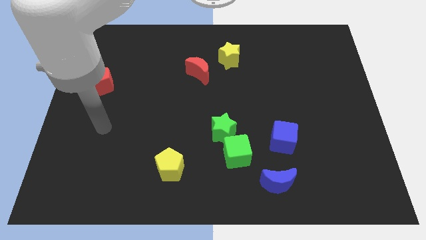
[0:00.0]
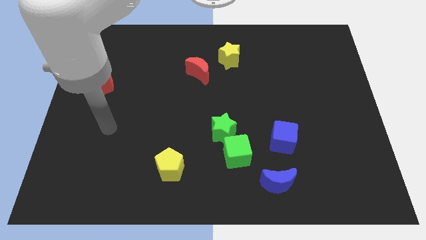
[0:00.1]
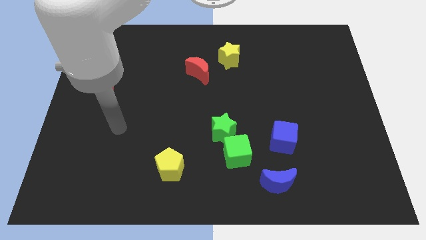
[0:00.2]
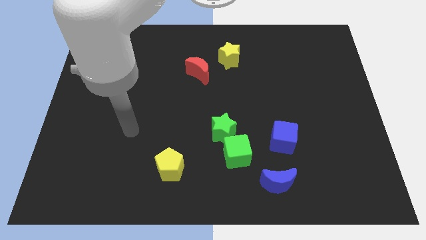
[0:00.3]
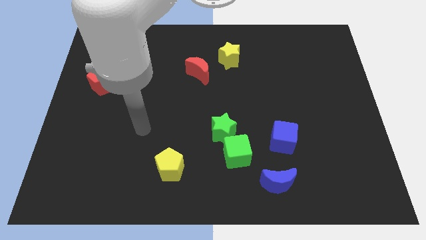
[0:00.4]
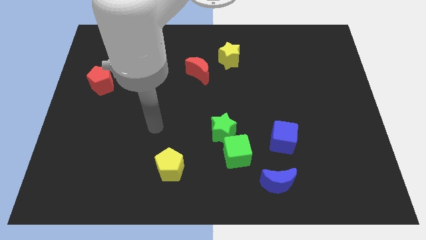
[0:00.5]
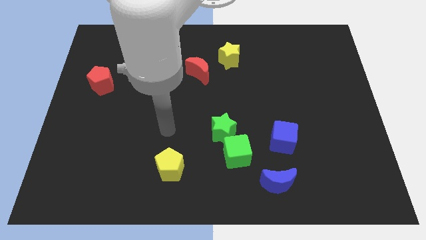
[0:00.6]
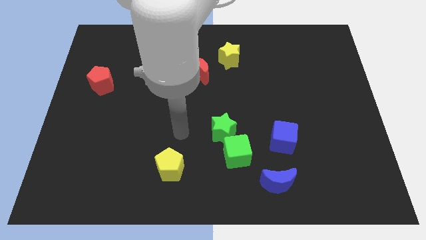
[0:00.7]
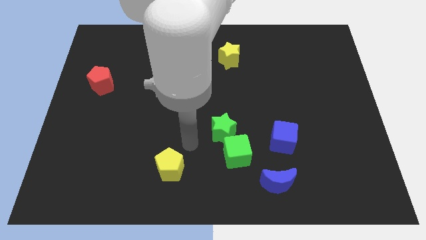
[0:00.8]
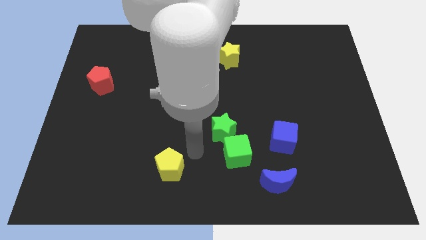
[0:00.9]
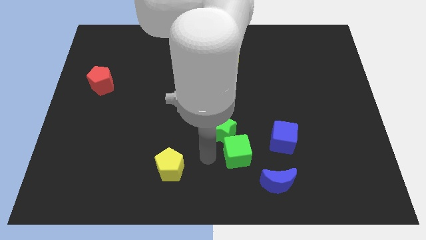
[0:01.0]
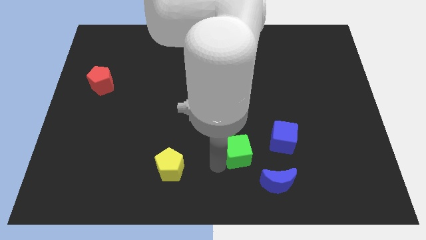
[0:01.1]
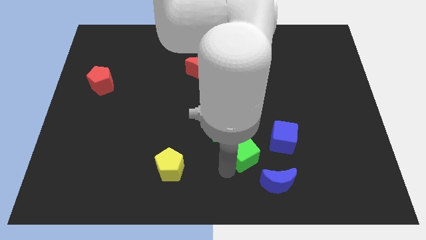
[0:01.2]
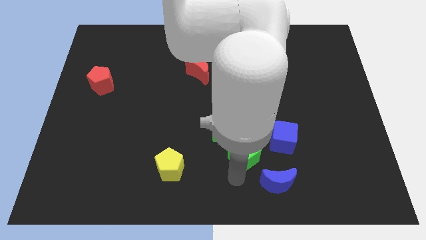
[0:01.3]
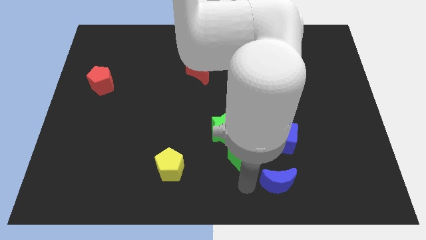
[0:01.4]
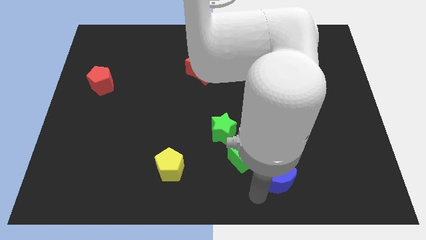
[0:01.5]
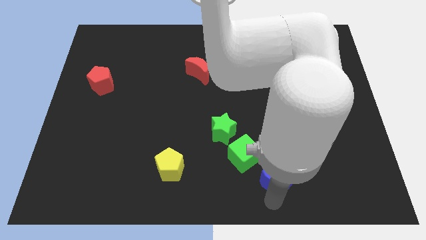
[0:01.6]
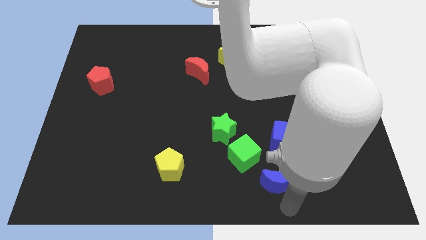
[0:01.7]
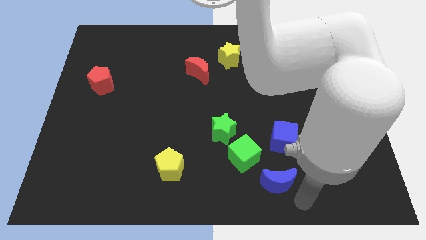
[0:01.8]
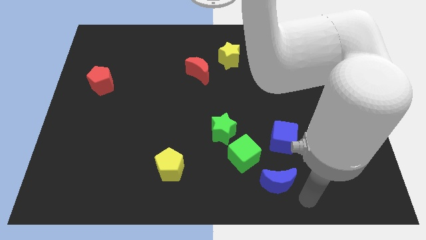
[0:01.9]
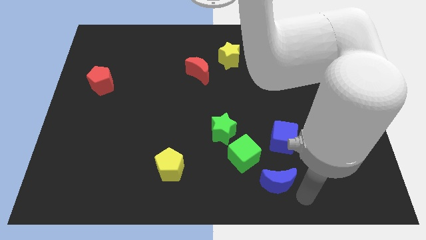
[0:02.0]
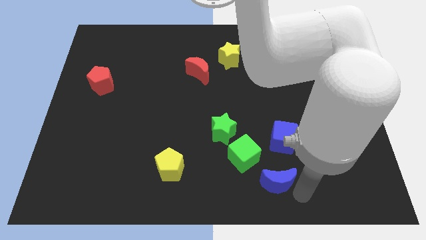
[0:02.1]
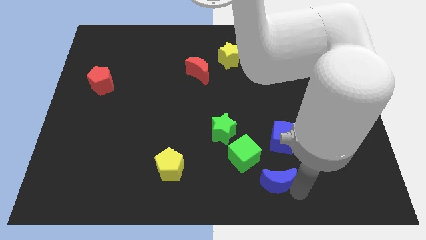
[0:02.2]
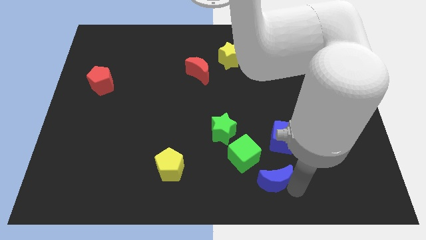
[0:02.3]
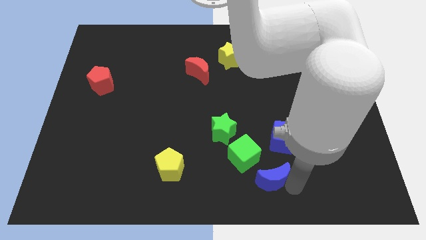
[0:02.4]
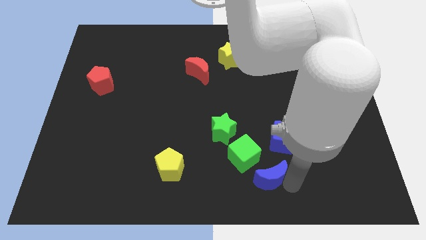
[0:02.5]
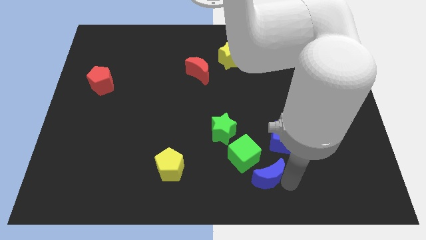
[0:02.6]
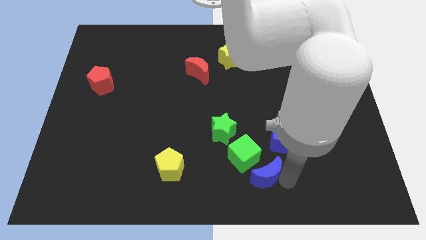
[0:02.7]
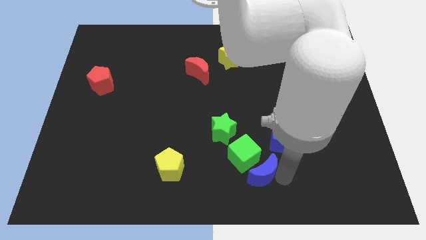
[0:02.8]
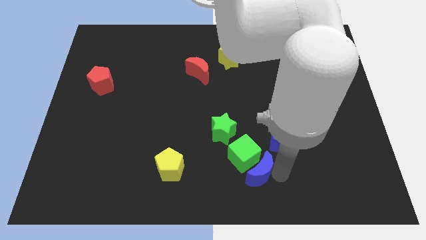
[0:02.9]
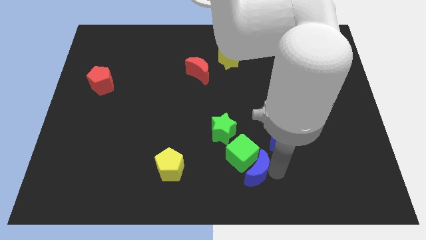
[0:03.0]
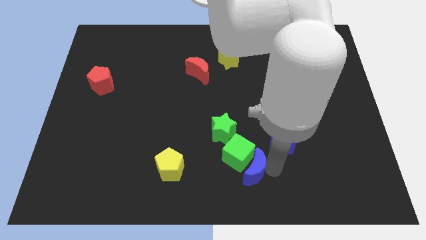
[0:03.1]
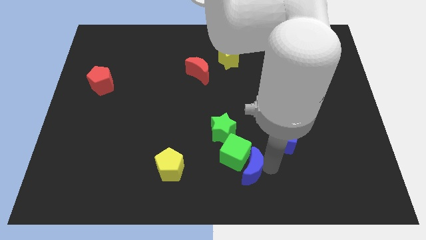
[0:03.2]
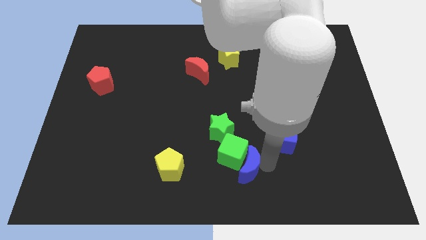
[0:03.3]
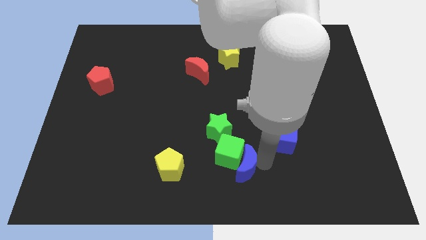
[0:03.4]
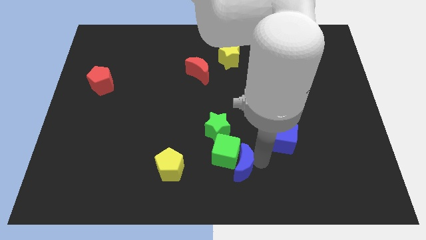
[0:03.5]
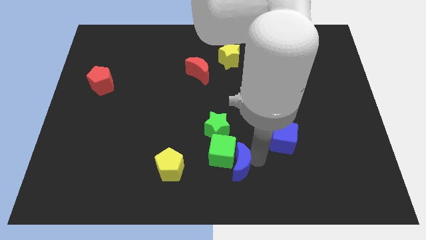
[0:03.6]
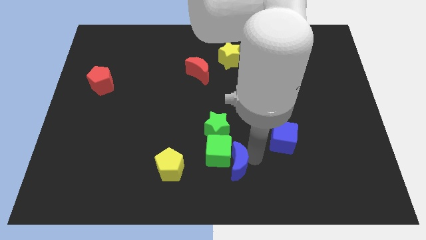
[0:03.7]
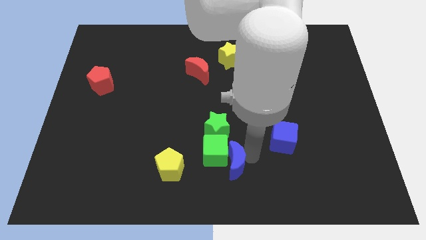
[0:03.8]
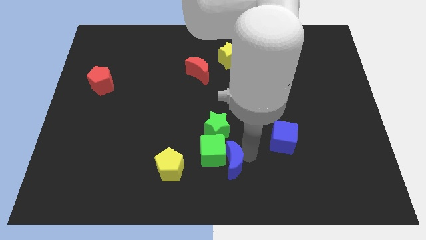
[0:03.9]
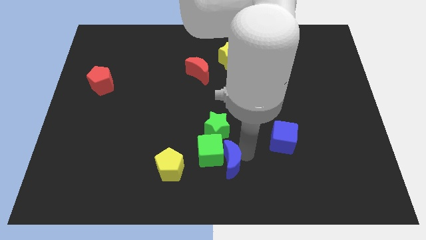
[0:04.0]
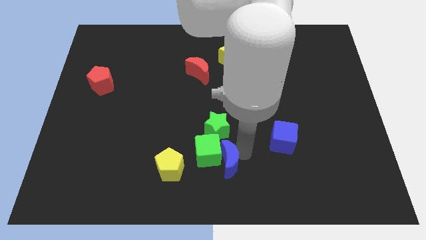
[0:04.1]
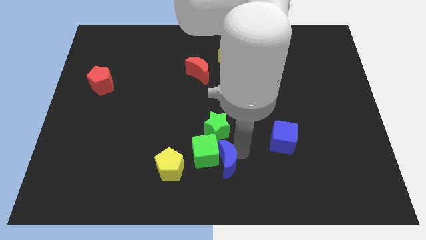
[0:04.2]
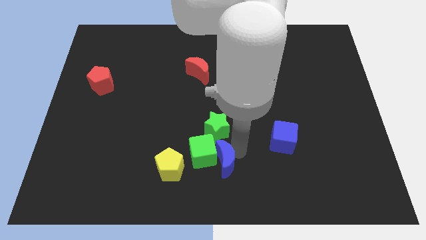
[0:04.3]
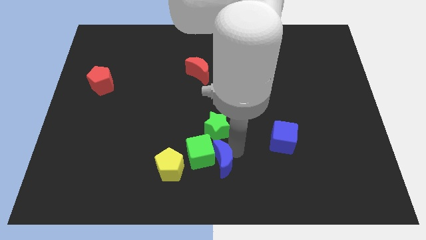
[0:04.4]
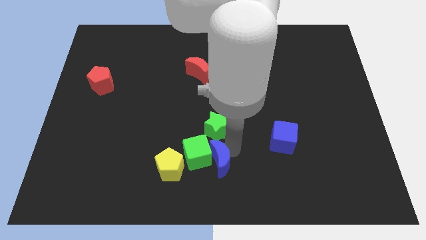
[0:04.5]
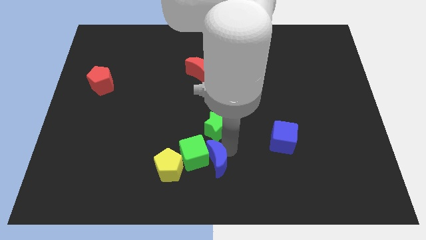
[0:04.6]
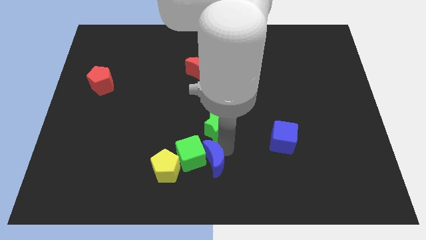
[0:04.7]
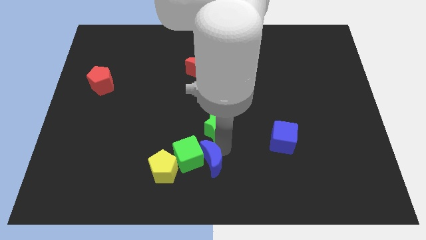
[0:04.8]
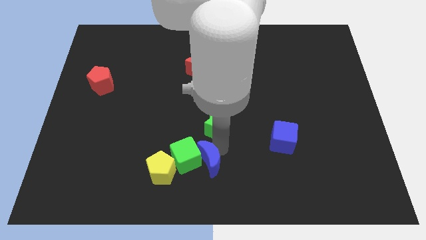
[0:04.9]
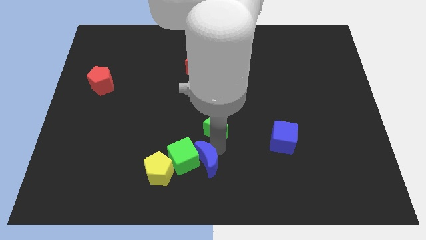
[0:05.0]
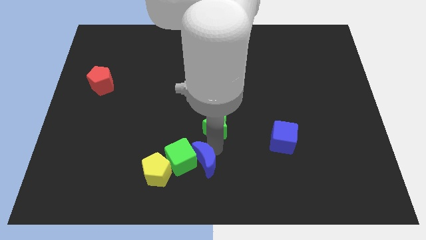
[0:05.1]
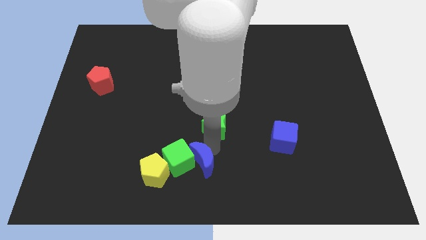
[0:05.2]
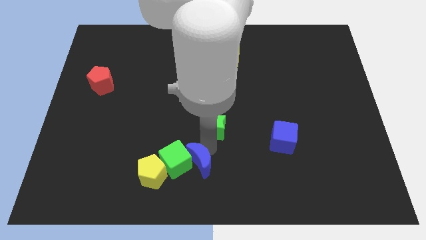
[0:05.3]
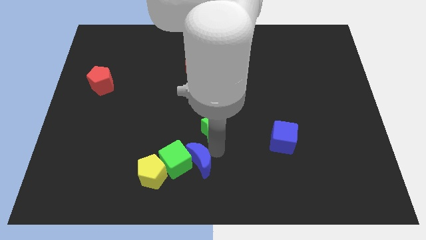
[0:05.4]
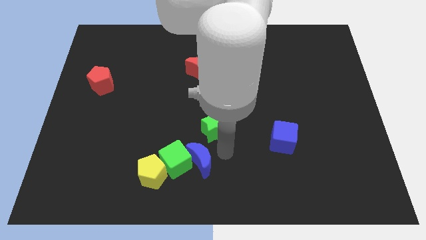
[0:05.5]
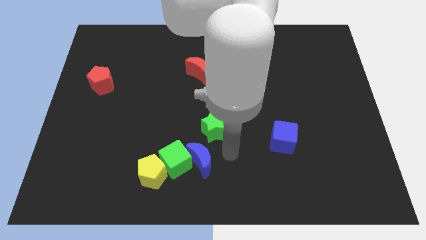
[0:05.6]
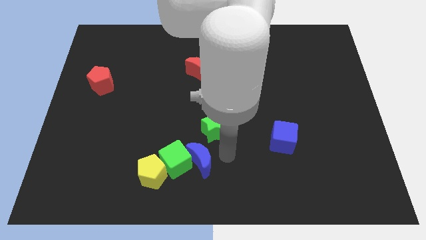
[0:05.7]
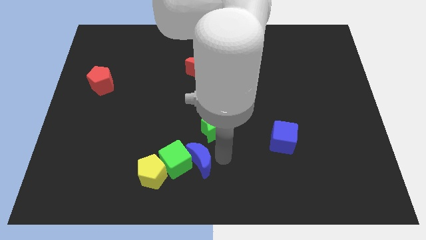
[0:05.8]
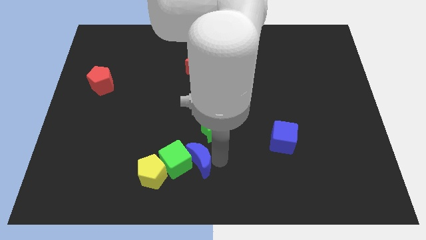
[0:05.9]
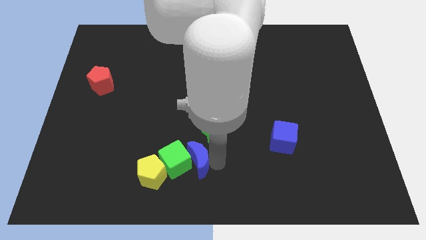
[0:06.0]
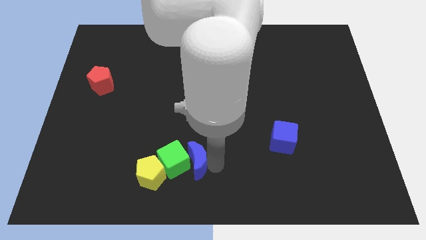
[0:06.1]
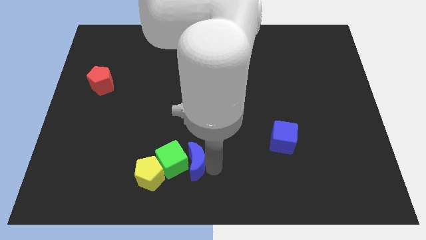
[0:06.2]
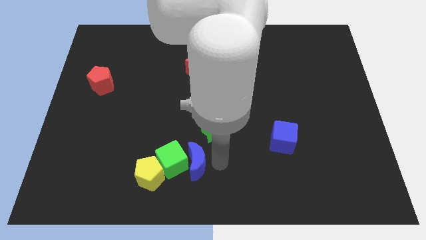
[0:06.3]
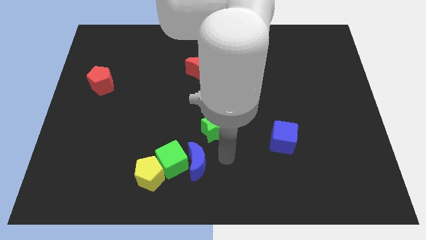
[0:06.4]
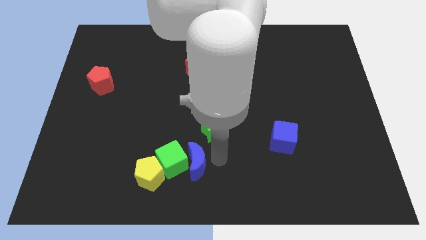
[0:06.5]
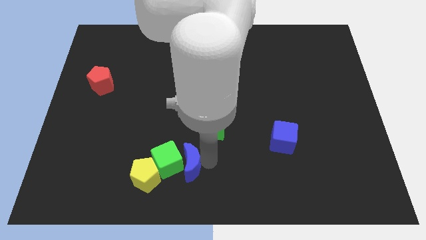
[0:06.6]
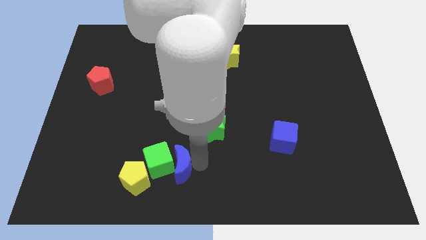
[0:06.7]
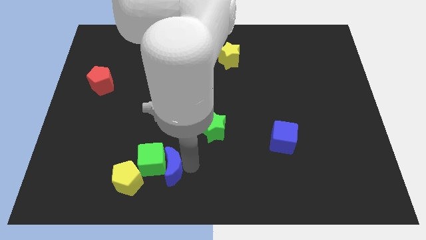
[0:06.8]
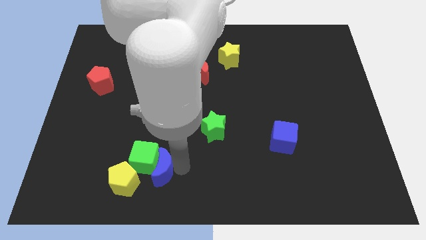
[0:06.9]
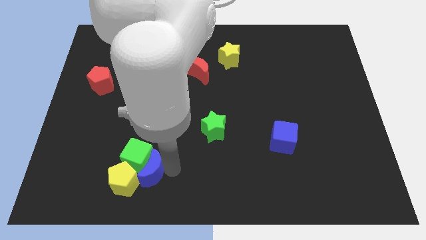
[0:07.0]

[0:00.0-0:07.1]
move the blue moon towards the yellow pentagon

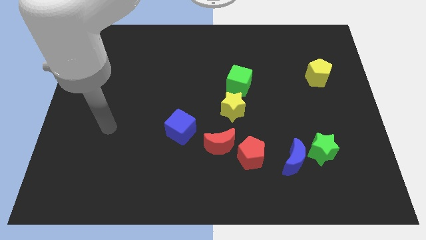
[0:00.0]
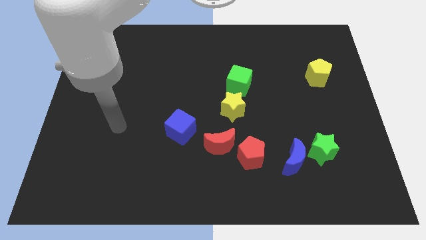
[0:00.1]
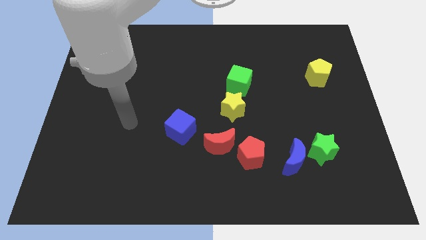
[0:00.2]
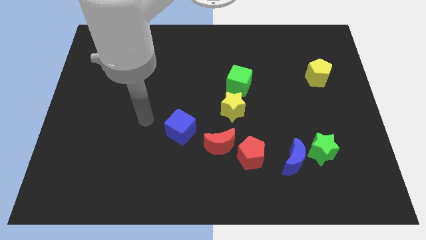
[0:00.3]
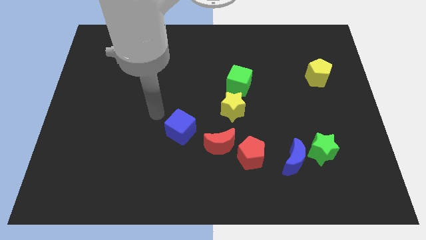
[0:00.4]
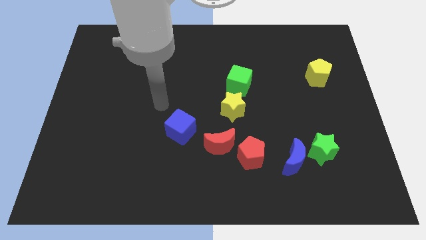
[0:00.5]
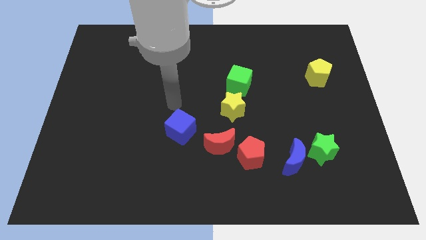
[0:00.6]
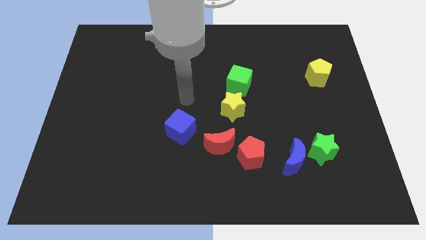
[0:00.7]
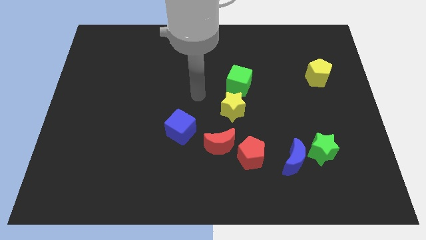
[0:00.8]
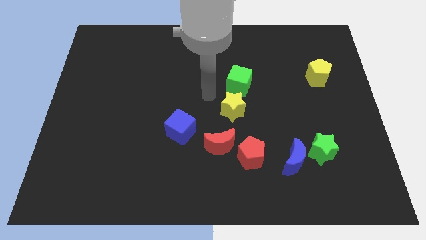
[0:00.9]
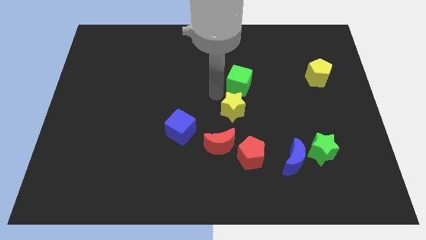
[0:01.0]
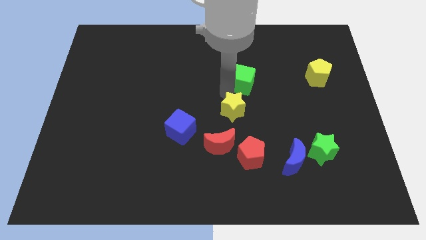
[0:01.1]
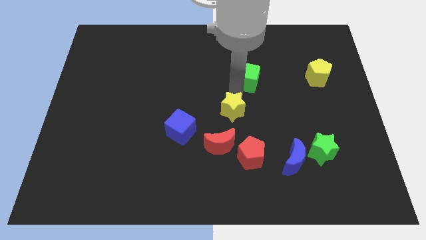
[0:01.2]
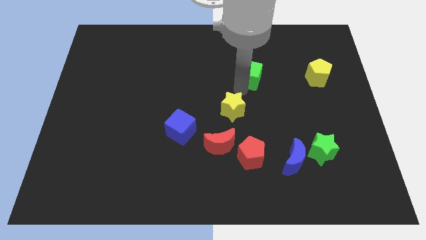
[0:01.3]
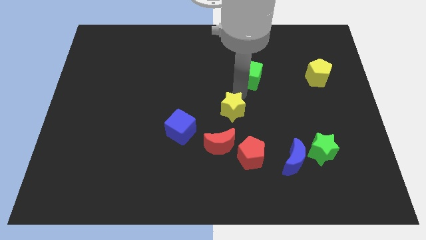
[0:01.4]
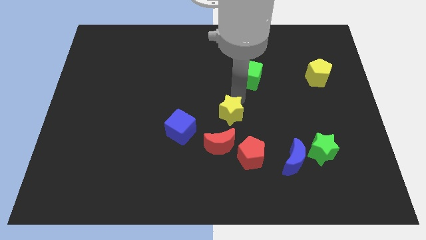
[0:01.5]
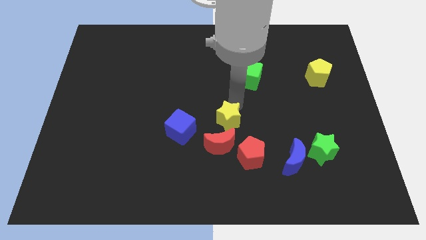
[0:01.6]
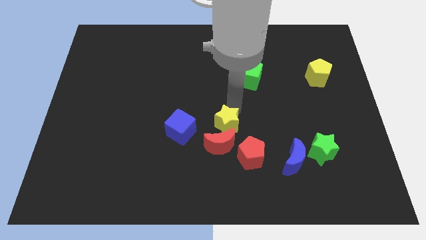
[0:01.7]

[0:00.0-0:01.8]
push the yellow star close to the red moon
